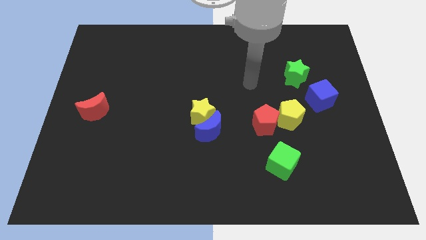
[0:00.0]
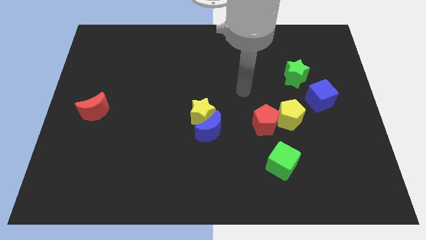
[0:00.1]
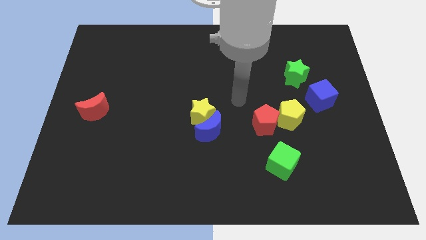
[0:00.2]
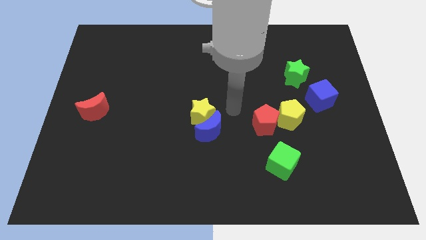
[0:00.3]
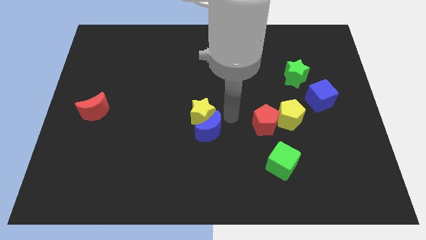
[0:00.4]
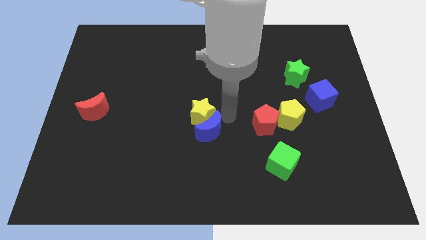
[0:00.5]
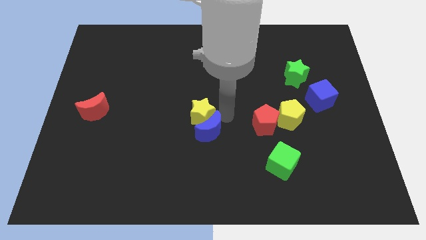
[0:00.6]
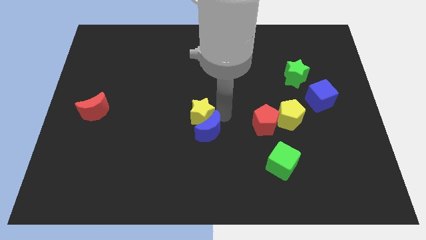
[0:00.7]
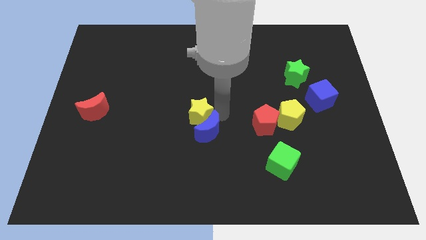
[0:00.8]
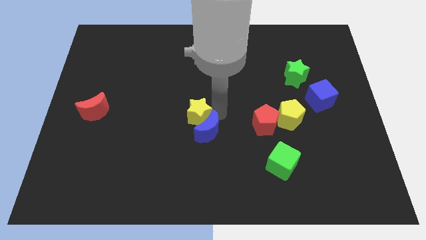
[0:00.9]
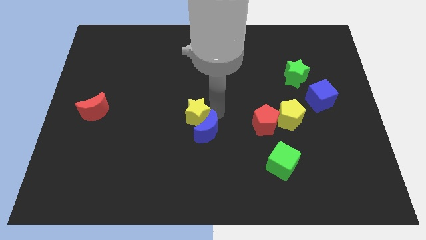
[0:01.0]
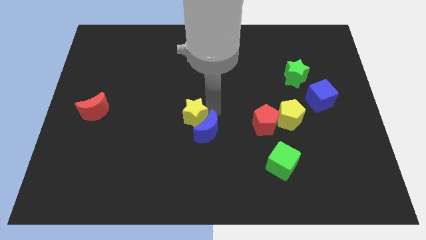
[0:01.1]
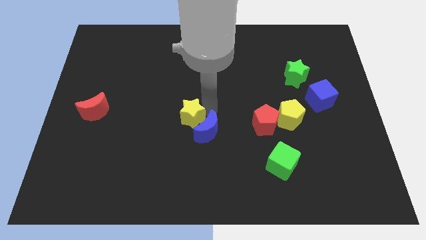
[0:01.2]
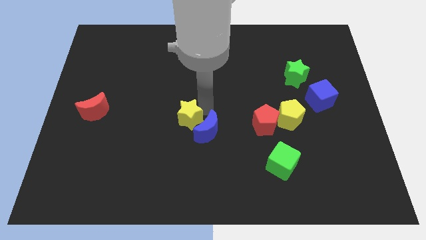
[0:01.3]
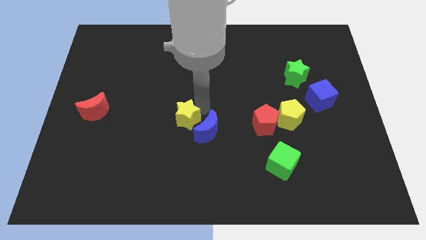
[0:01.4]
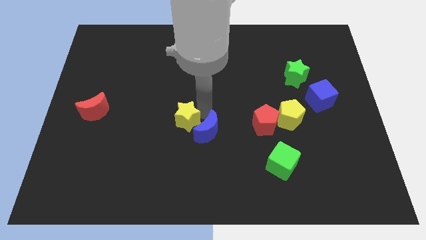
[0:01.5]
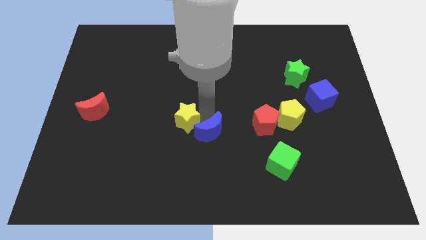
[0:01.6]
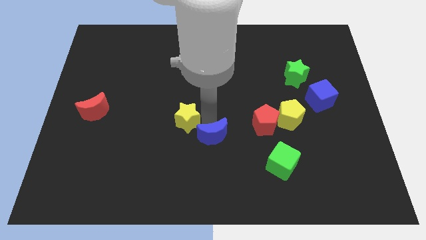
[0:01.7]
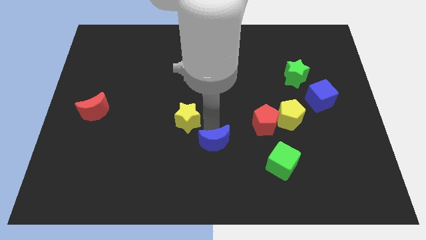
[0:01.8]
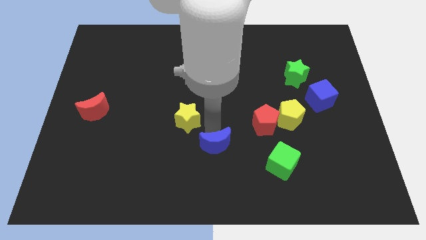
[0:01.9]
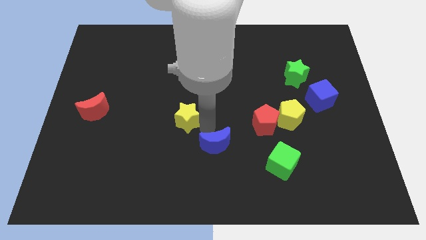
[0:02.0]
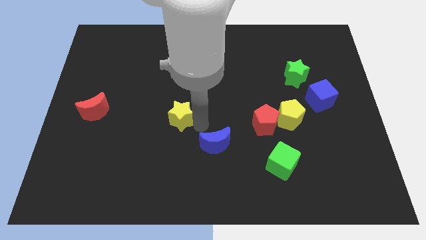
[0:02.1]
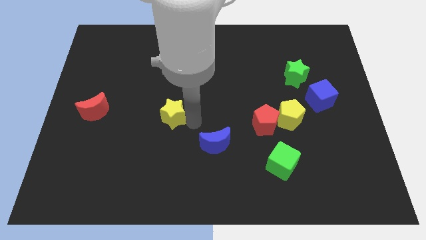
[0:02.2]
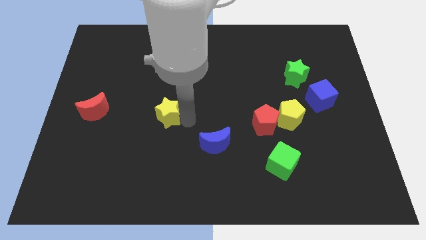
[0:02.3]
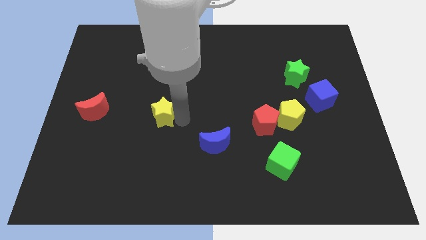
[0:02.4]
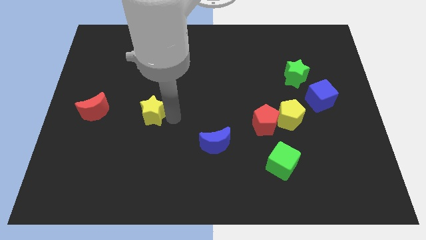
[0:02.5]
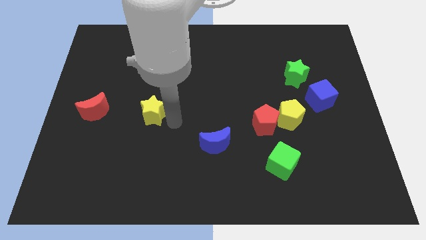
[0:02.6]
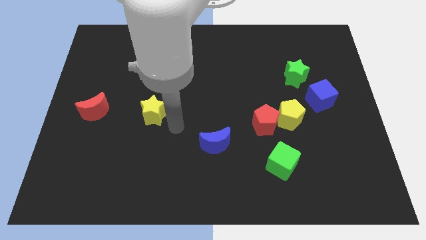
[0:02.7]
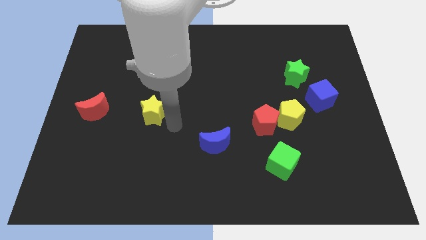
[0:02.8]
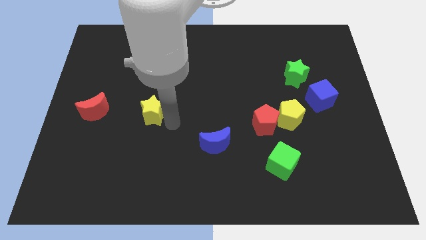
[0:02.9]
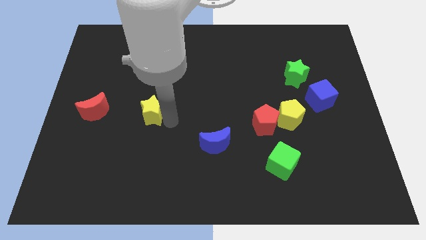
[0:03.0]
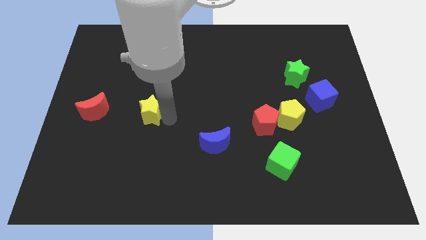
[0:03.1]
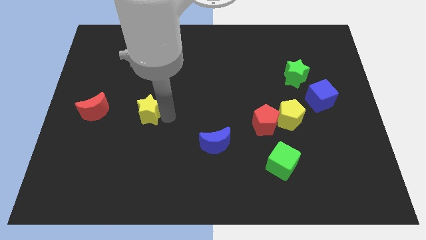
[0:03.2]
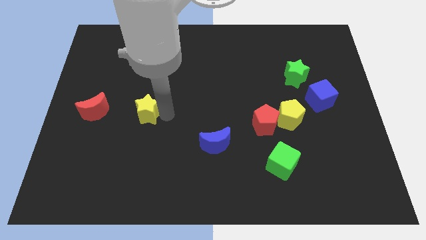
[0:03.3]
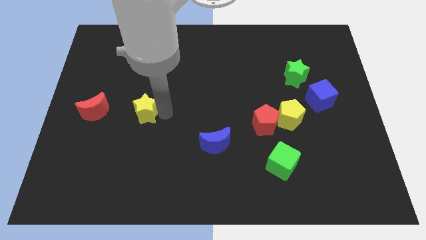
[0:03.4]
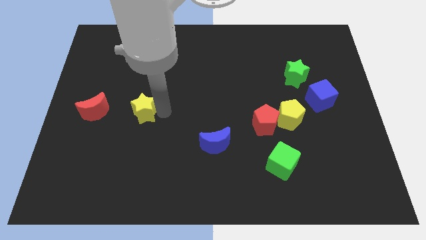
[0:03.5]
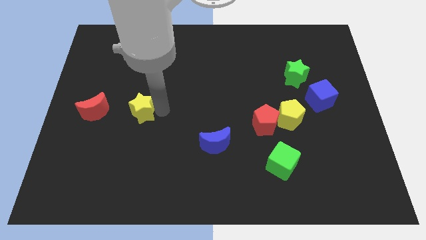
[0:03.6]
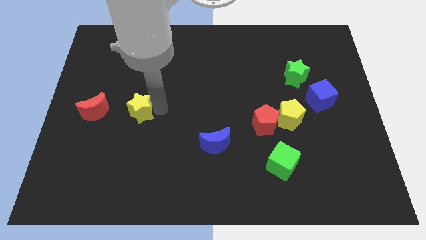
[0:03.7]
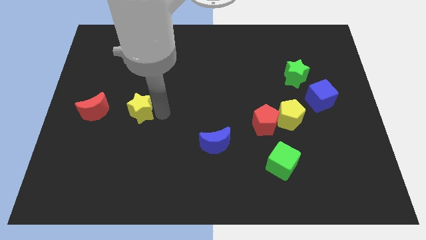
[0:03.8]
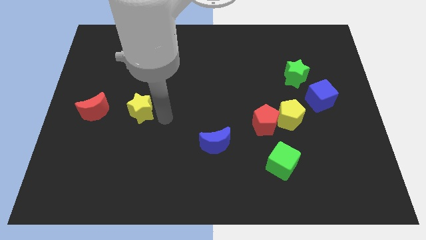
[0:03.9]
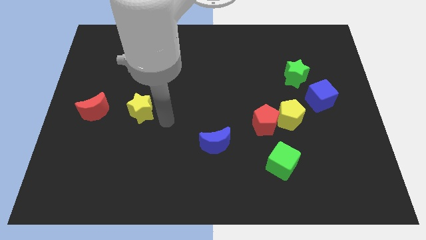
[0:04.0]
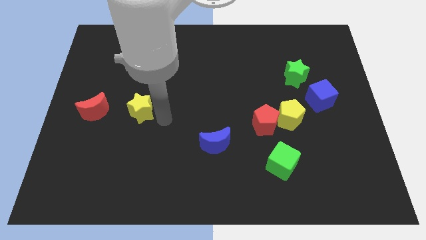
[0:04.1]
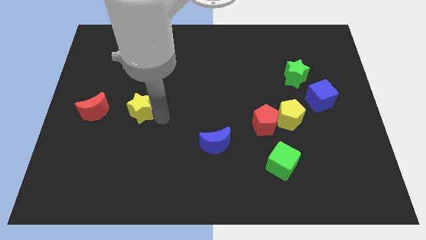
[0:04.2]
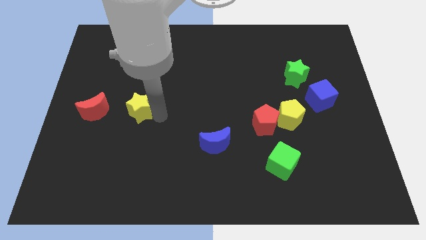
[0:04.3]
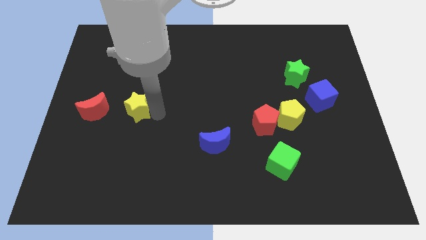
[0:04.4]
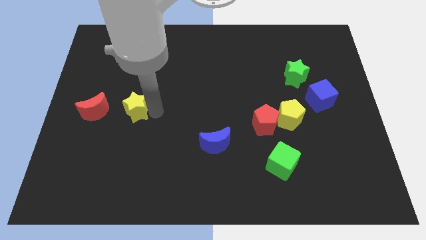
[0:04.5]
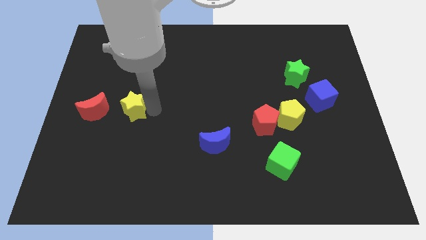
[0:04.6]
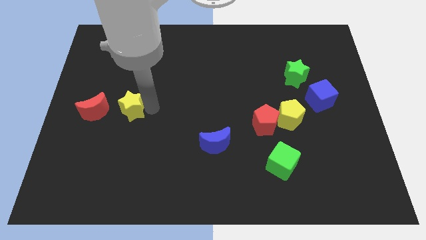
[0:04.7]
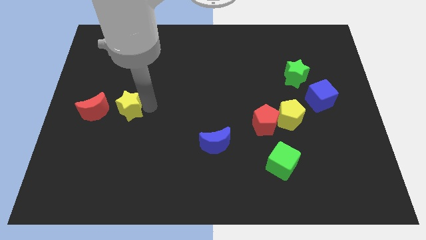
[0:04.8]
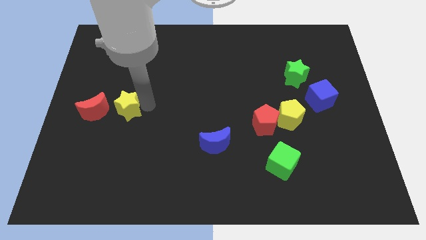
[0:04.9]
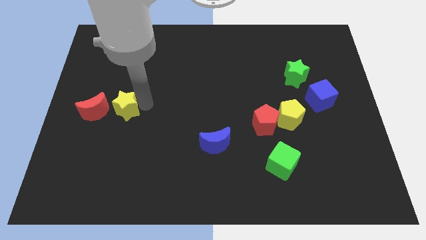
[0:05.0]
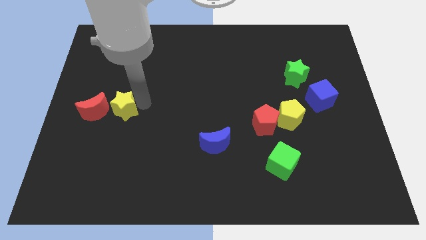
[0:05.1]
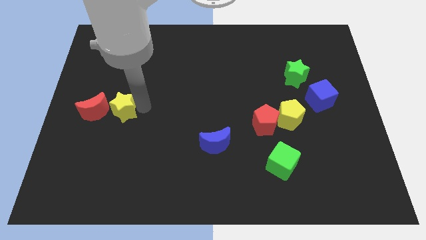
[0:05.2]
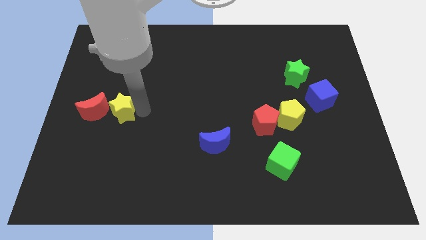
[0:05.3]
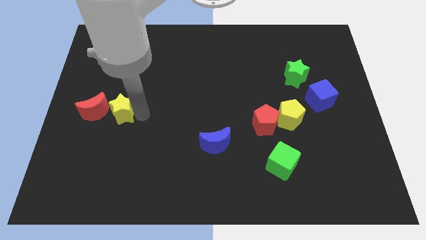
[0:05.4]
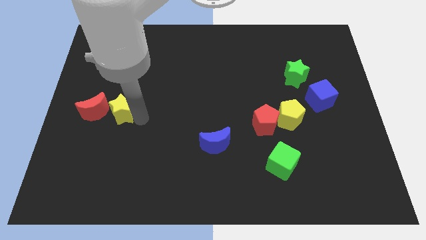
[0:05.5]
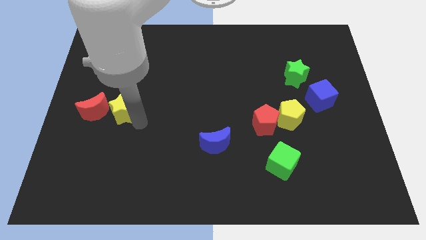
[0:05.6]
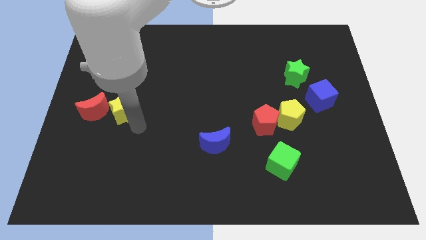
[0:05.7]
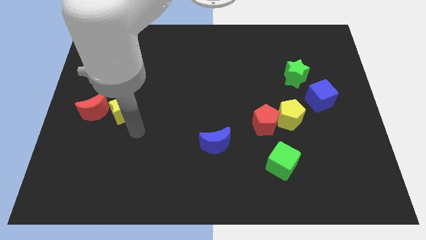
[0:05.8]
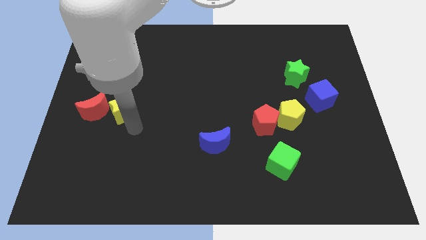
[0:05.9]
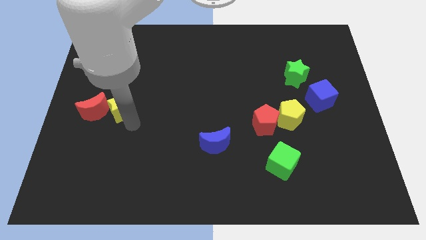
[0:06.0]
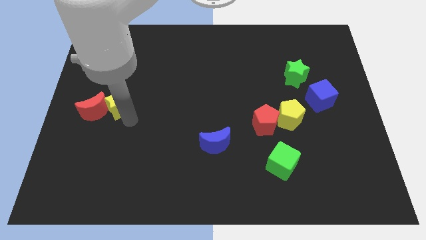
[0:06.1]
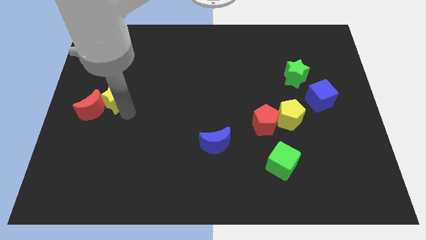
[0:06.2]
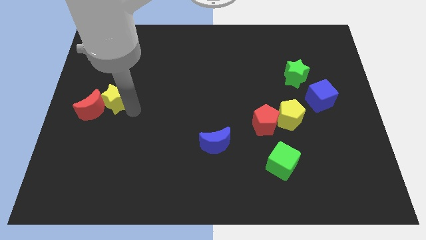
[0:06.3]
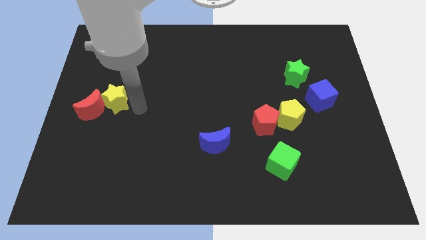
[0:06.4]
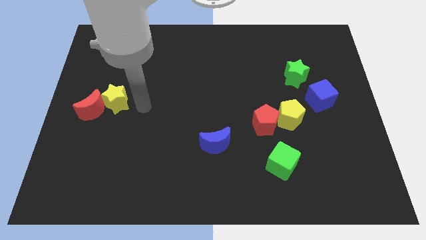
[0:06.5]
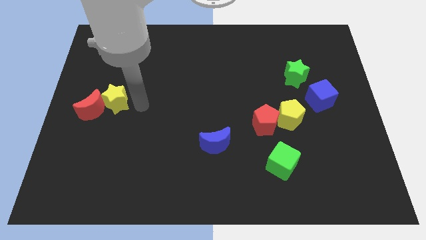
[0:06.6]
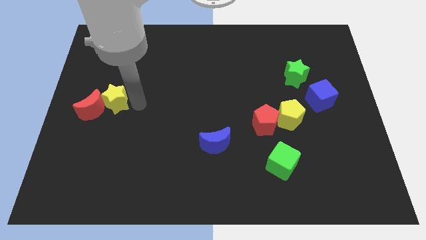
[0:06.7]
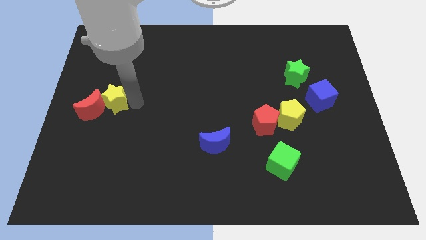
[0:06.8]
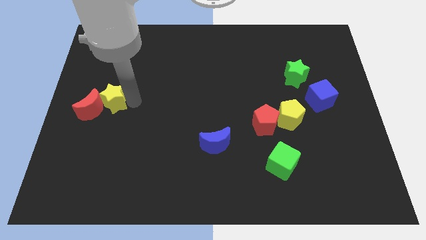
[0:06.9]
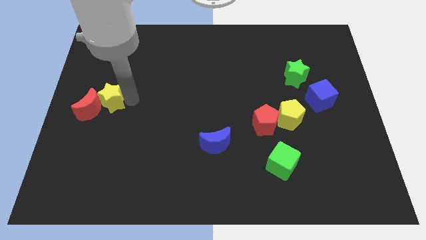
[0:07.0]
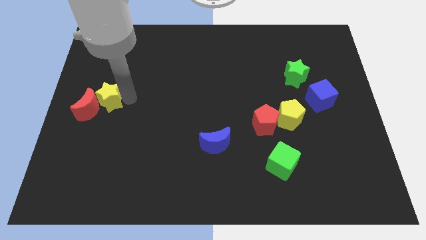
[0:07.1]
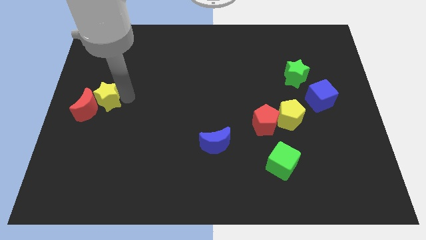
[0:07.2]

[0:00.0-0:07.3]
put the yellow star to the left side of the board

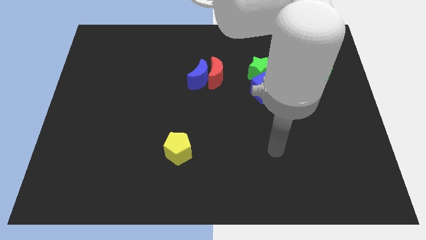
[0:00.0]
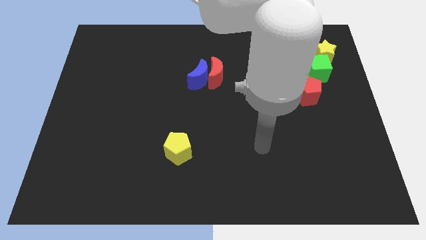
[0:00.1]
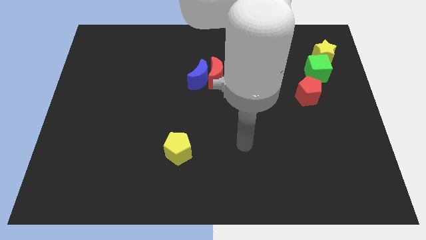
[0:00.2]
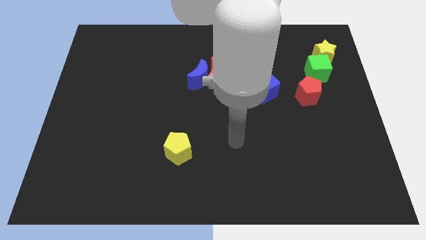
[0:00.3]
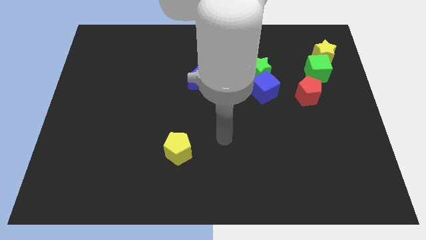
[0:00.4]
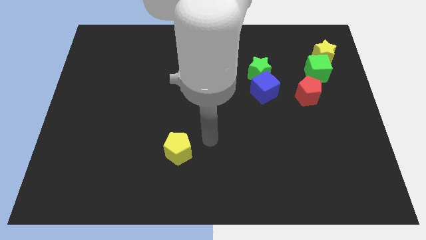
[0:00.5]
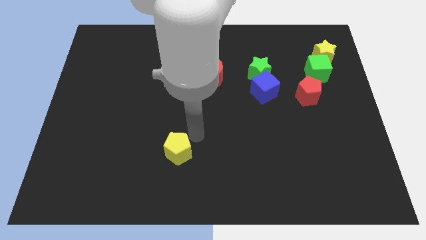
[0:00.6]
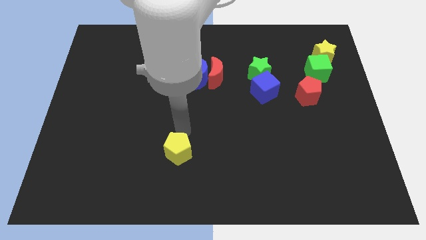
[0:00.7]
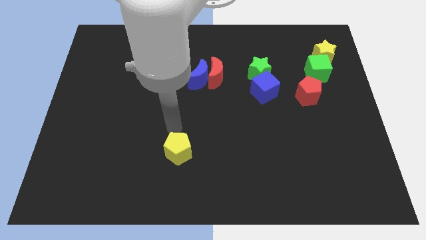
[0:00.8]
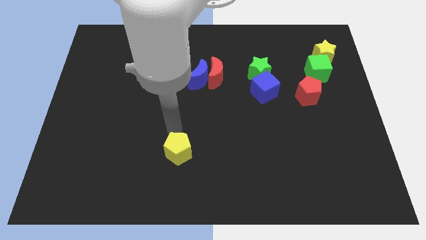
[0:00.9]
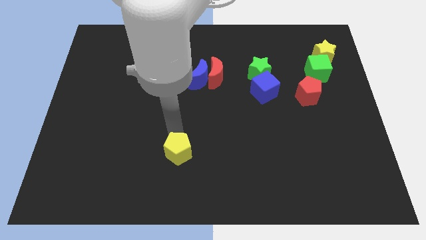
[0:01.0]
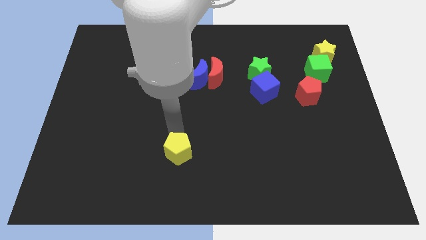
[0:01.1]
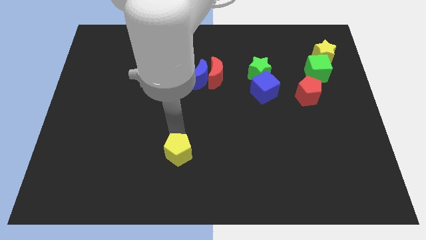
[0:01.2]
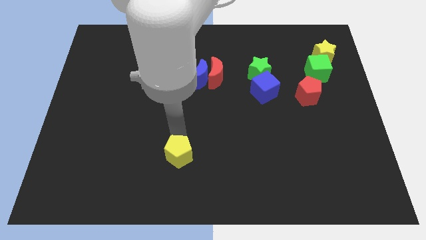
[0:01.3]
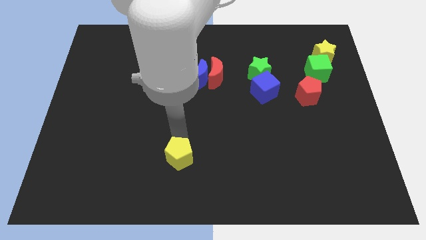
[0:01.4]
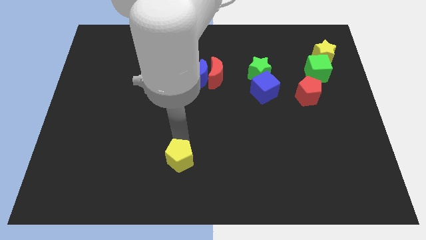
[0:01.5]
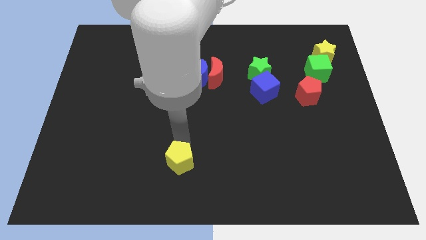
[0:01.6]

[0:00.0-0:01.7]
move the yellow pentagon to the bottom side
